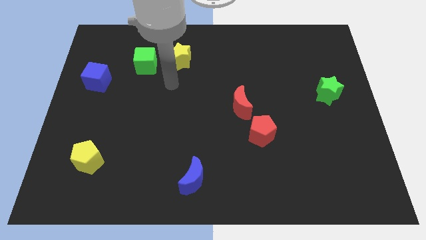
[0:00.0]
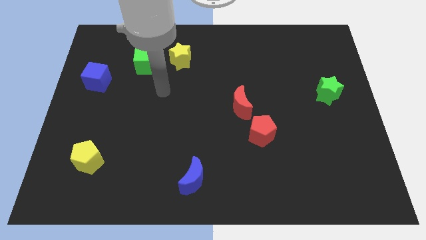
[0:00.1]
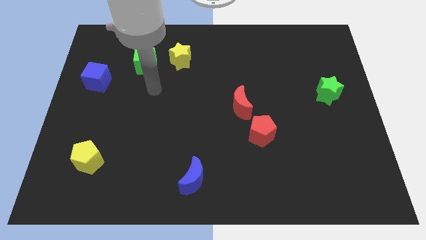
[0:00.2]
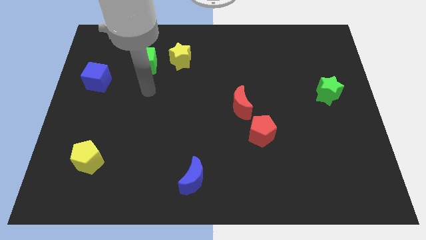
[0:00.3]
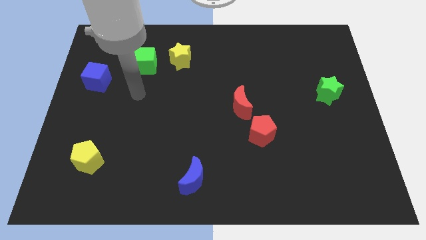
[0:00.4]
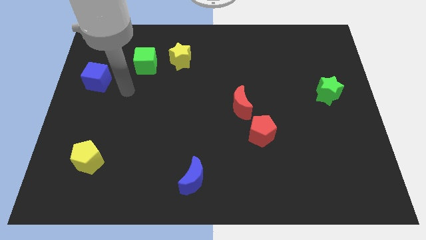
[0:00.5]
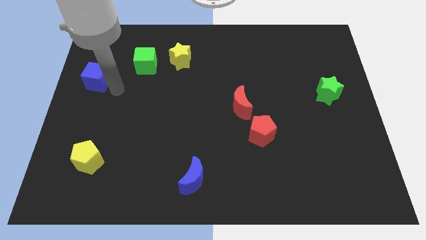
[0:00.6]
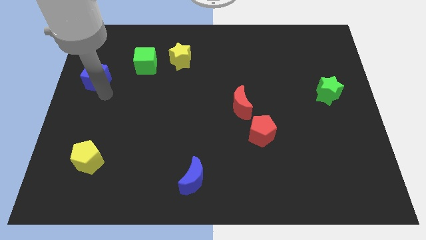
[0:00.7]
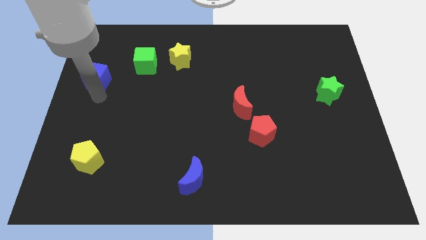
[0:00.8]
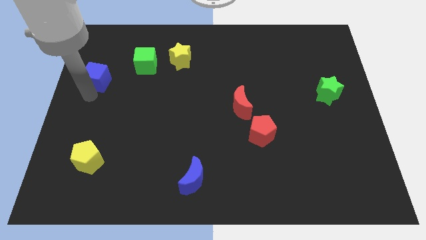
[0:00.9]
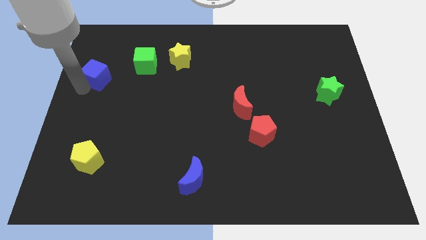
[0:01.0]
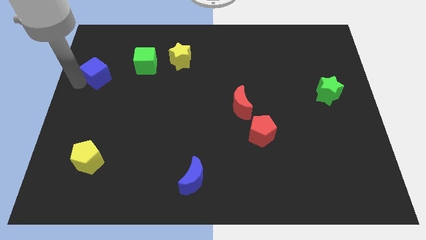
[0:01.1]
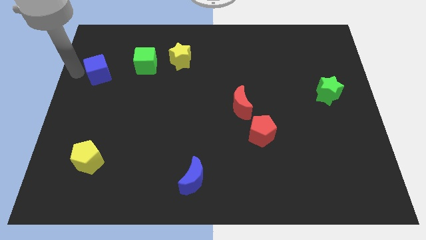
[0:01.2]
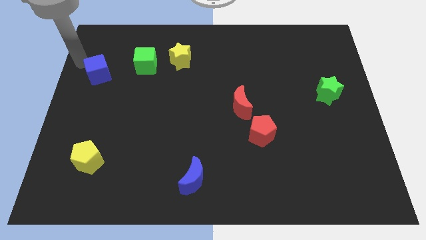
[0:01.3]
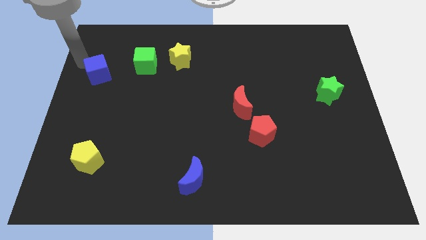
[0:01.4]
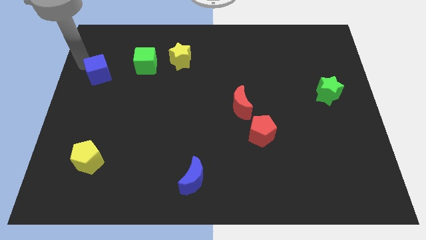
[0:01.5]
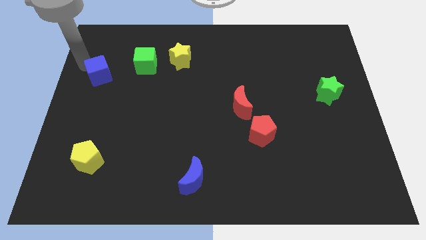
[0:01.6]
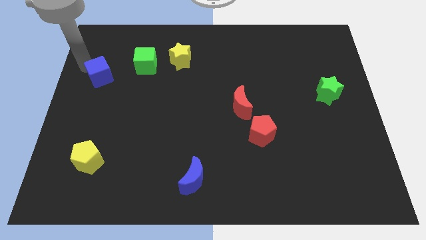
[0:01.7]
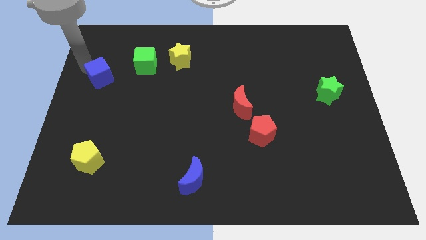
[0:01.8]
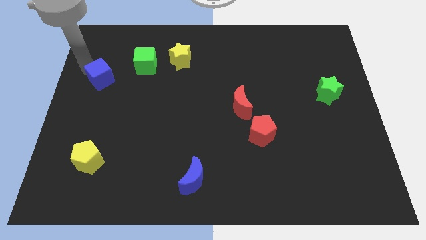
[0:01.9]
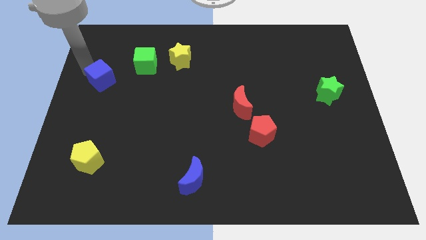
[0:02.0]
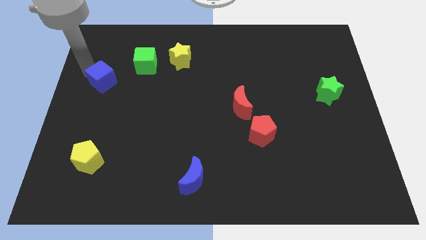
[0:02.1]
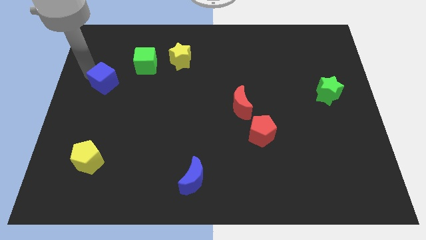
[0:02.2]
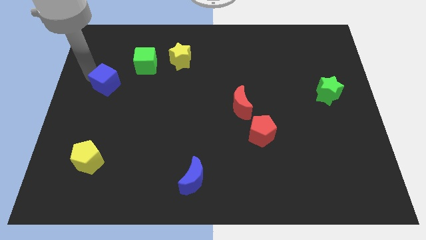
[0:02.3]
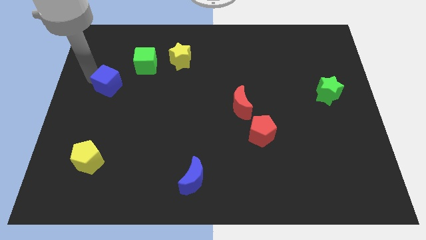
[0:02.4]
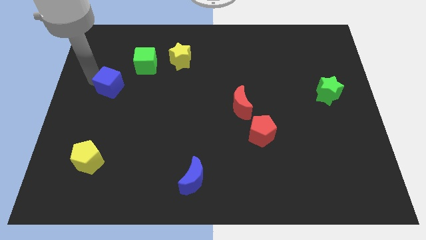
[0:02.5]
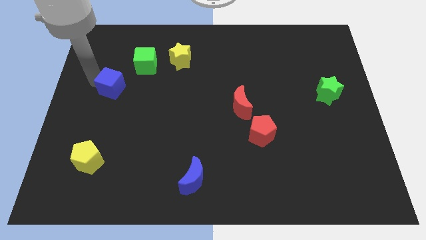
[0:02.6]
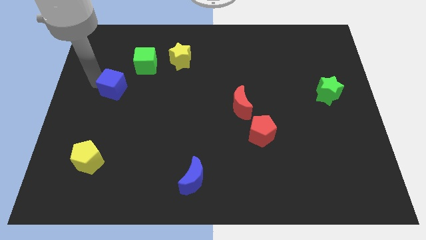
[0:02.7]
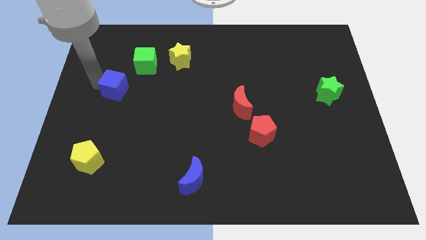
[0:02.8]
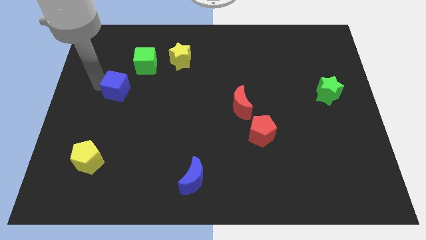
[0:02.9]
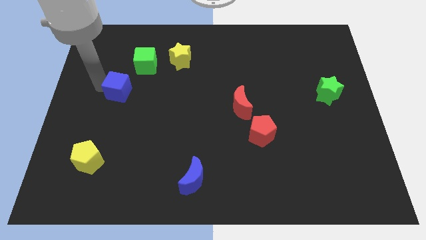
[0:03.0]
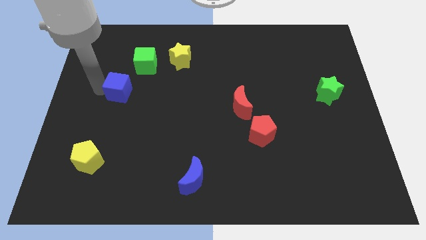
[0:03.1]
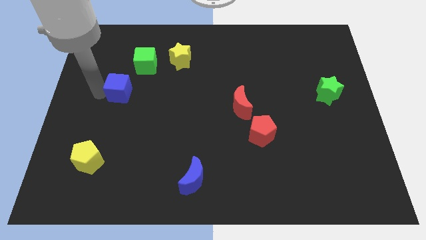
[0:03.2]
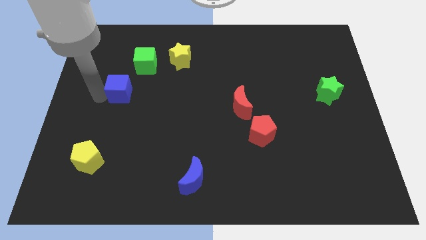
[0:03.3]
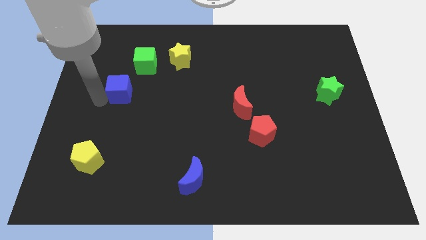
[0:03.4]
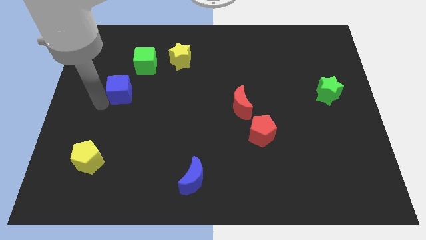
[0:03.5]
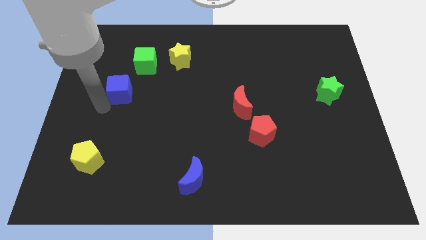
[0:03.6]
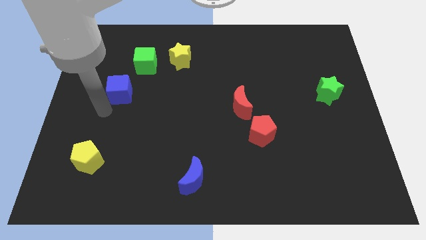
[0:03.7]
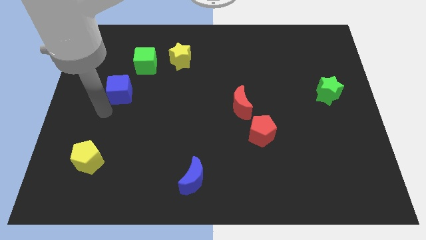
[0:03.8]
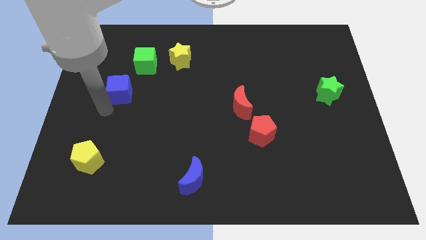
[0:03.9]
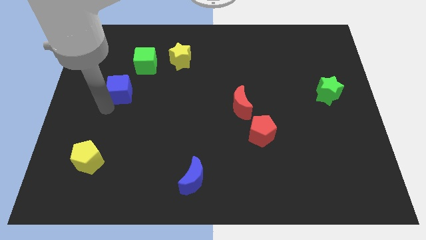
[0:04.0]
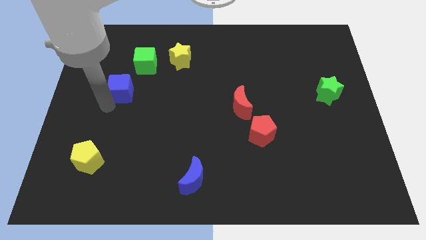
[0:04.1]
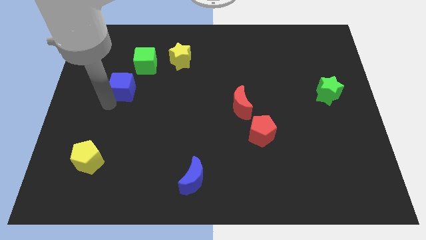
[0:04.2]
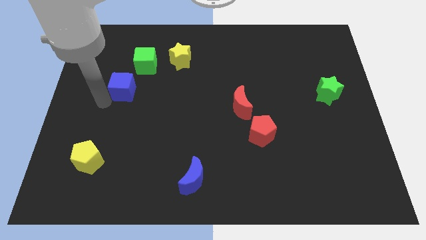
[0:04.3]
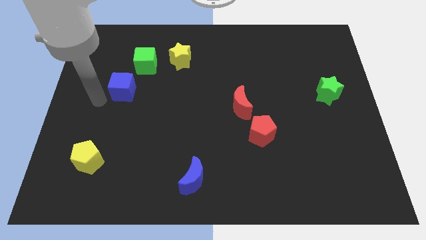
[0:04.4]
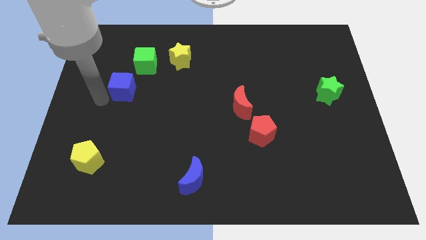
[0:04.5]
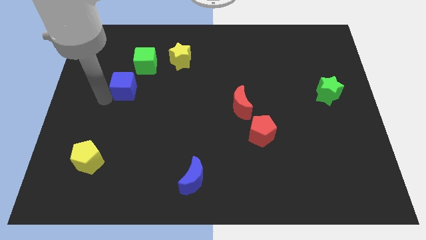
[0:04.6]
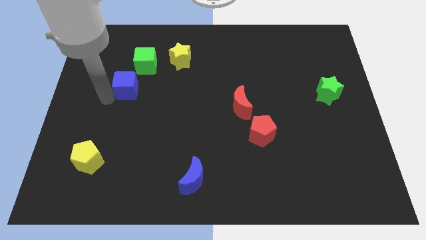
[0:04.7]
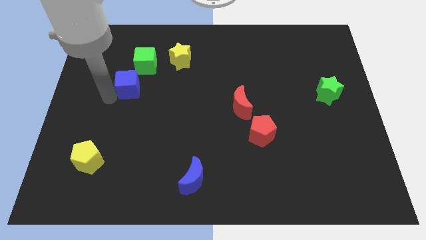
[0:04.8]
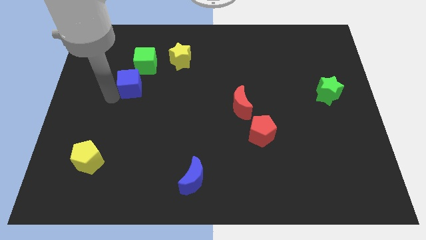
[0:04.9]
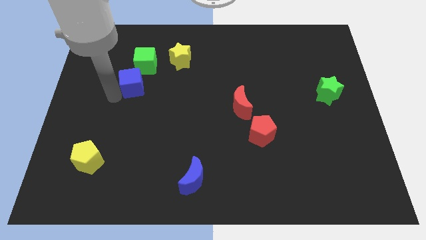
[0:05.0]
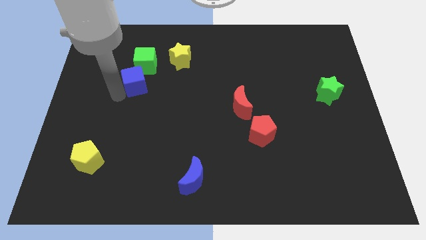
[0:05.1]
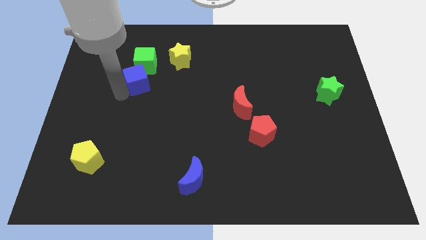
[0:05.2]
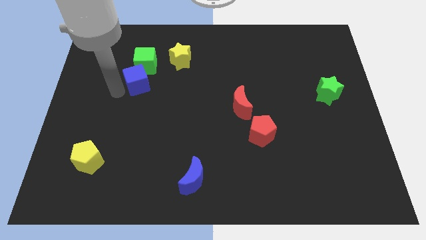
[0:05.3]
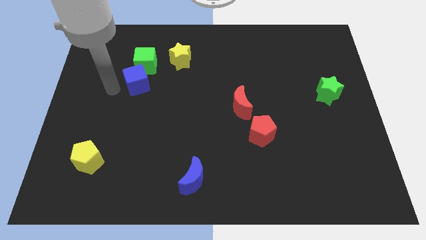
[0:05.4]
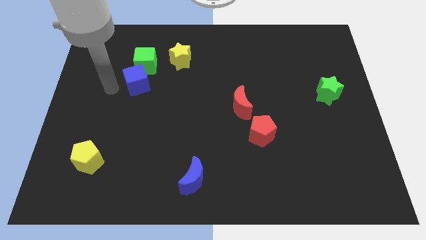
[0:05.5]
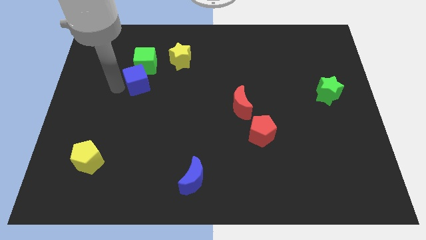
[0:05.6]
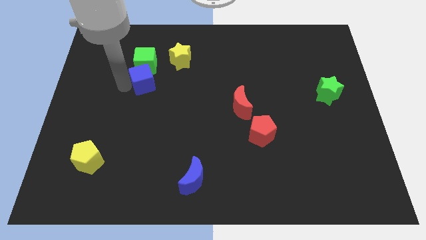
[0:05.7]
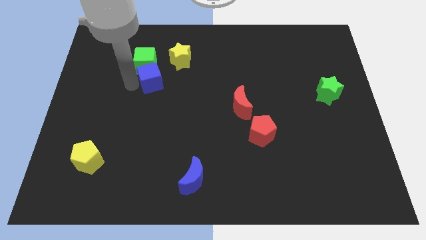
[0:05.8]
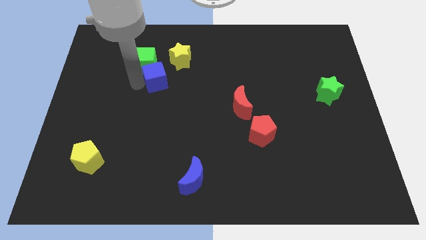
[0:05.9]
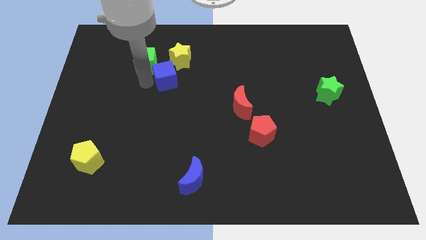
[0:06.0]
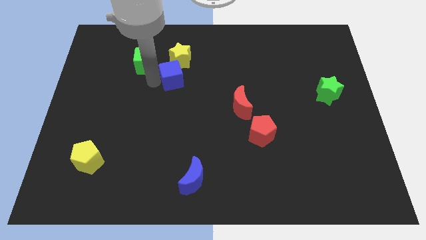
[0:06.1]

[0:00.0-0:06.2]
put the blue cube just right of the green cube

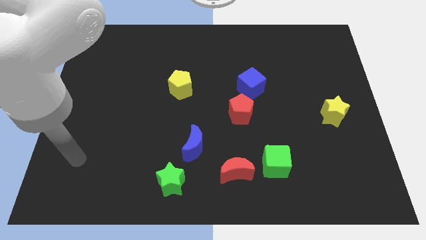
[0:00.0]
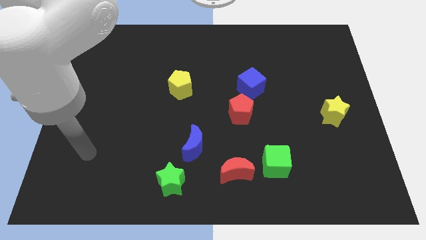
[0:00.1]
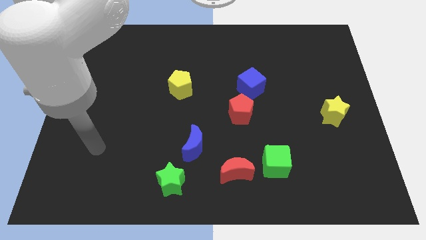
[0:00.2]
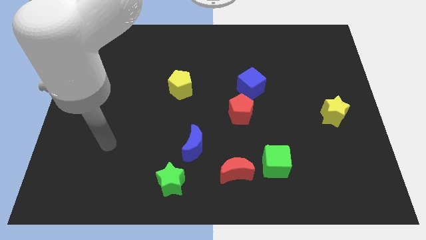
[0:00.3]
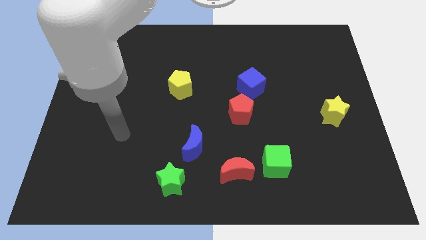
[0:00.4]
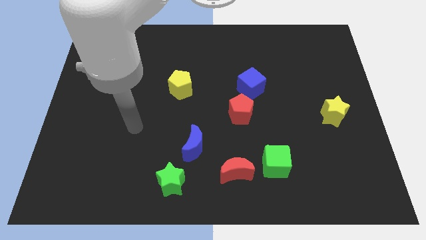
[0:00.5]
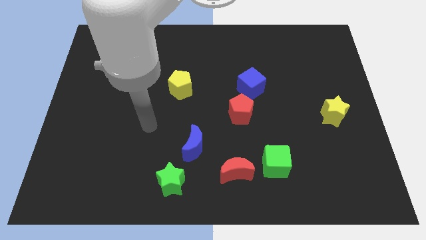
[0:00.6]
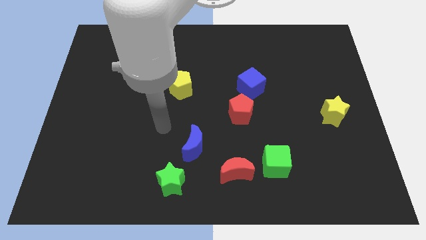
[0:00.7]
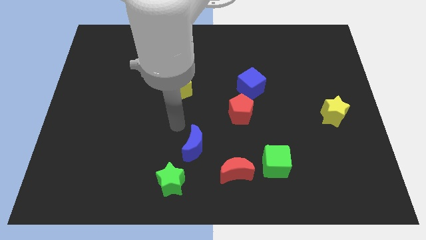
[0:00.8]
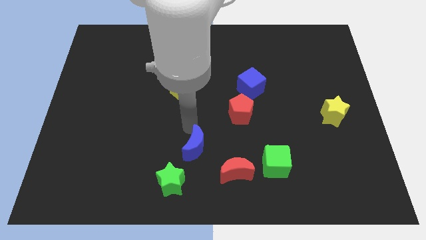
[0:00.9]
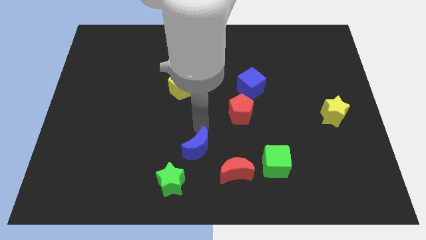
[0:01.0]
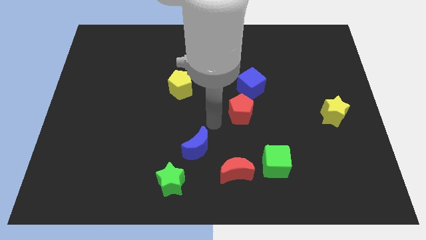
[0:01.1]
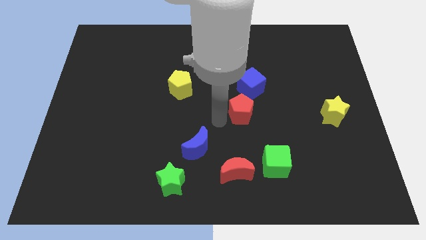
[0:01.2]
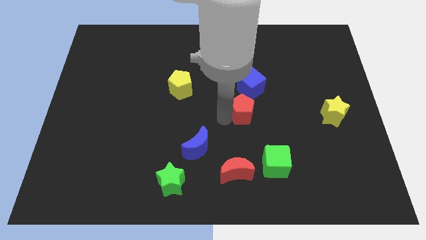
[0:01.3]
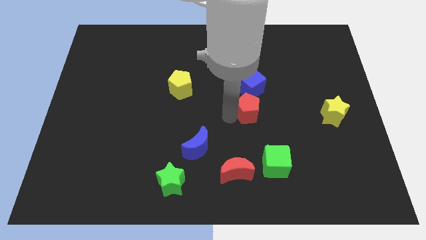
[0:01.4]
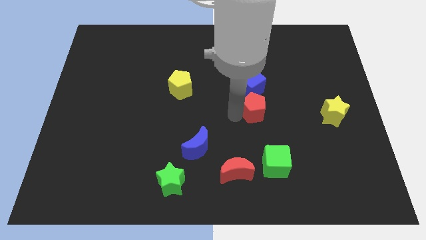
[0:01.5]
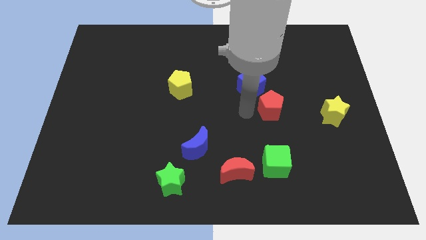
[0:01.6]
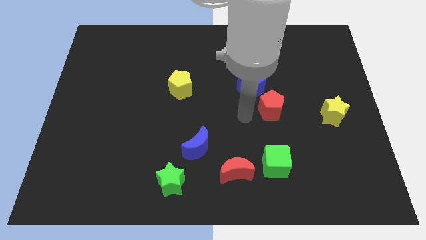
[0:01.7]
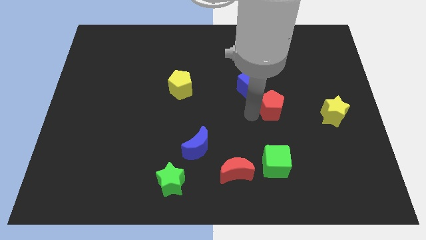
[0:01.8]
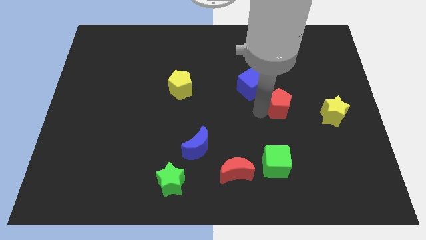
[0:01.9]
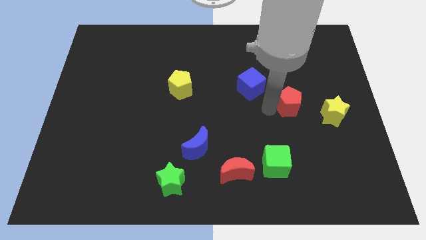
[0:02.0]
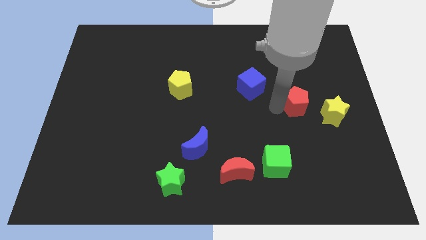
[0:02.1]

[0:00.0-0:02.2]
put the red pentagon to the top left side of the yellow star
